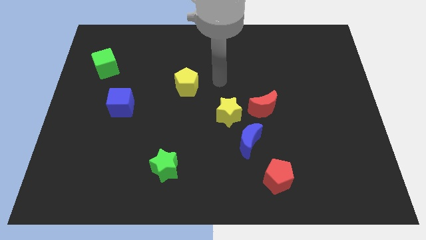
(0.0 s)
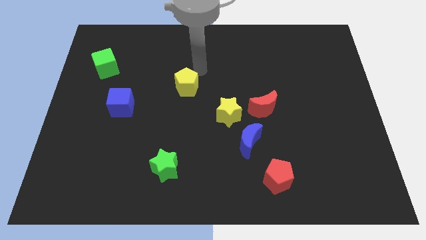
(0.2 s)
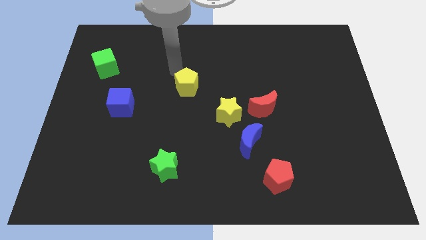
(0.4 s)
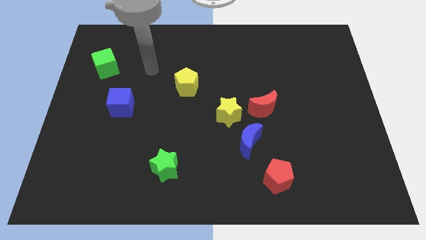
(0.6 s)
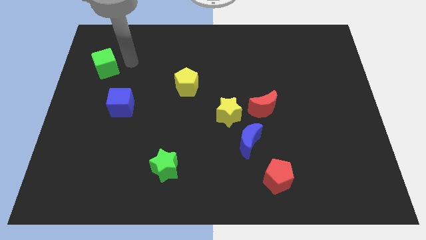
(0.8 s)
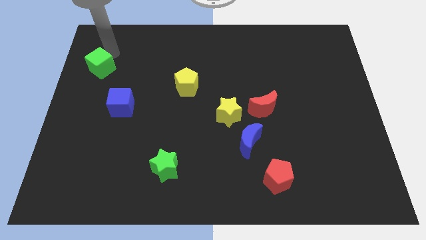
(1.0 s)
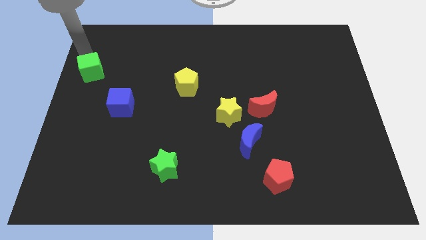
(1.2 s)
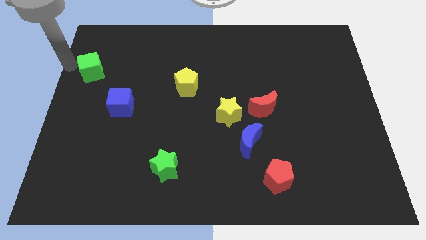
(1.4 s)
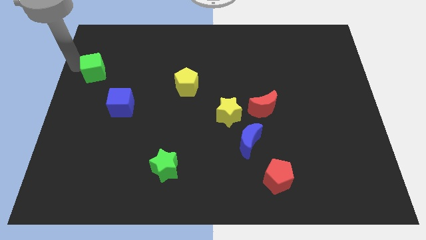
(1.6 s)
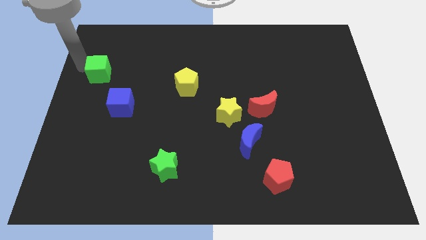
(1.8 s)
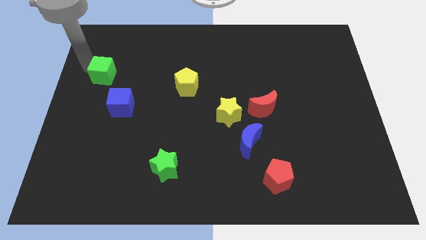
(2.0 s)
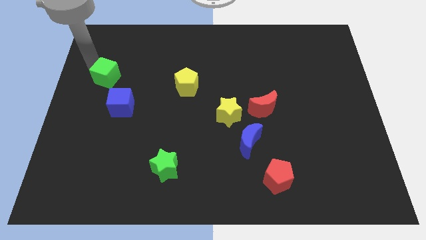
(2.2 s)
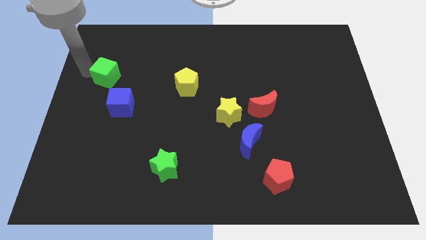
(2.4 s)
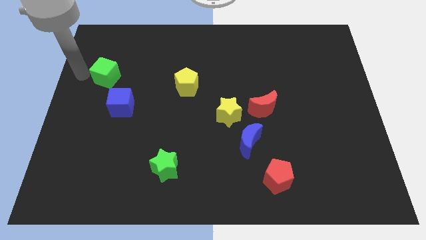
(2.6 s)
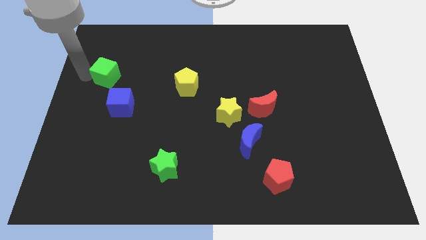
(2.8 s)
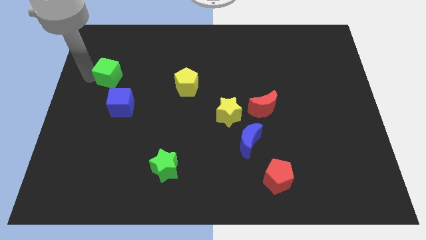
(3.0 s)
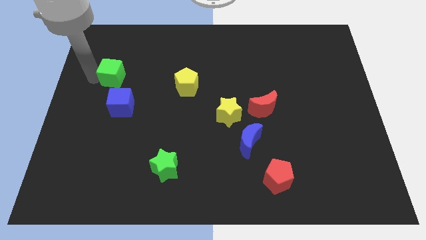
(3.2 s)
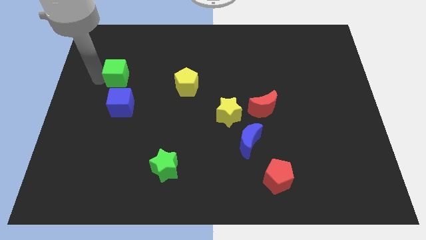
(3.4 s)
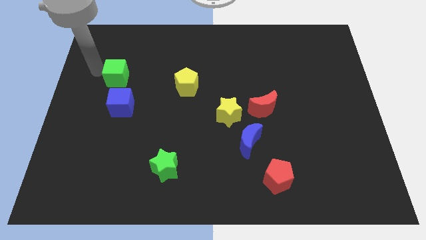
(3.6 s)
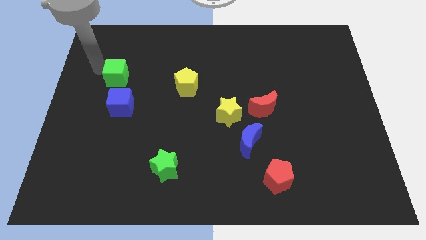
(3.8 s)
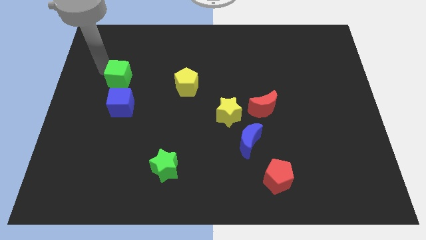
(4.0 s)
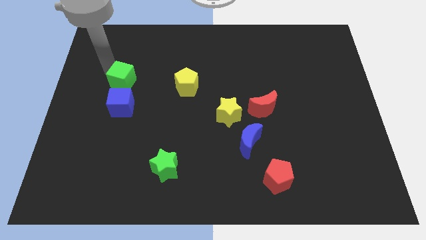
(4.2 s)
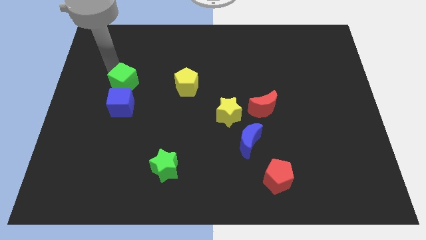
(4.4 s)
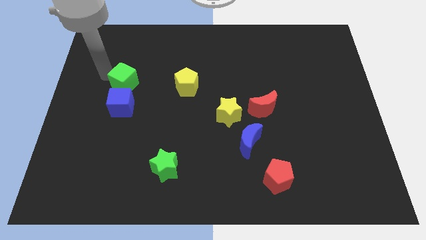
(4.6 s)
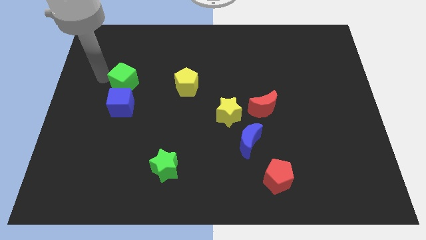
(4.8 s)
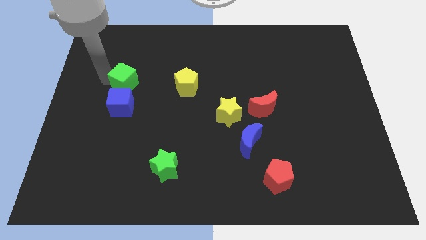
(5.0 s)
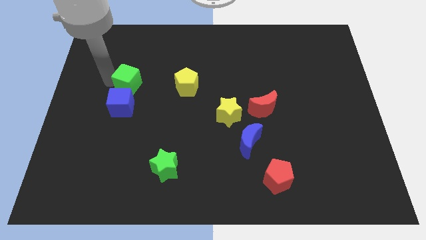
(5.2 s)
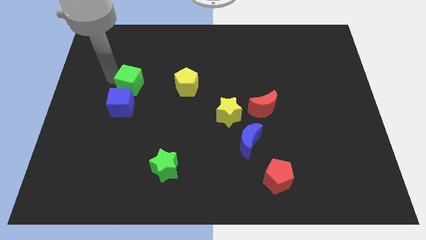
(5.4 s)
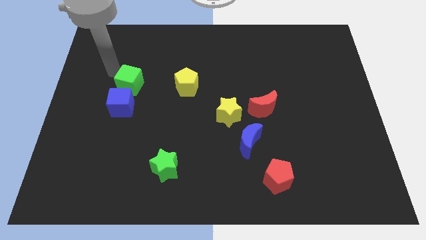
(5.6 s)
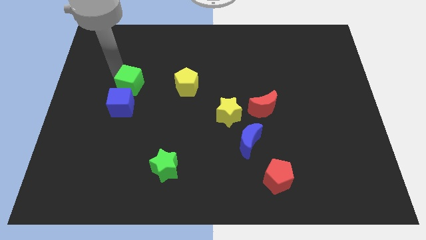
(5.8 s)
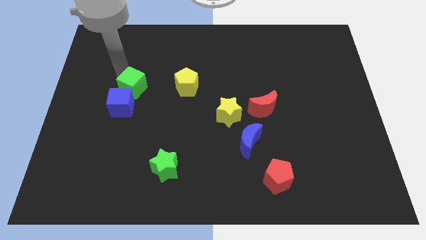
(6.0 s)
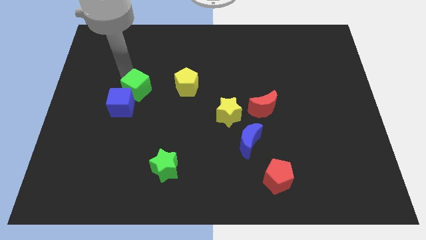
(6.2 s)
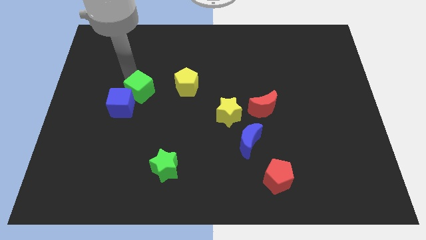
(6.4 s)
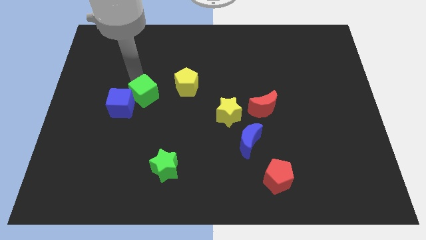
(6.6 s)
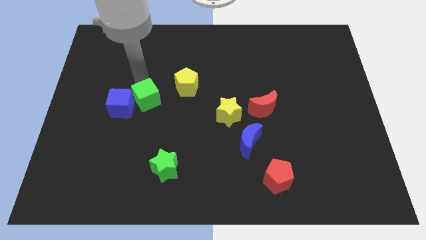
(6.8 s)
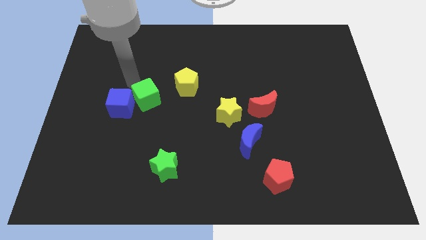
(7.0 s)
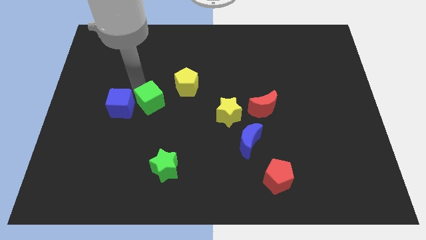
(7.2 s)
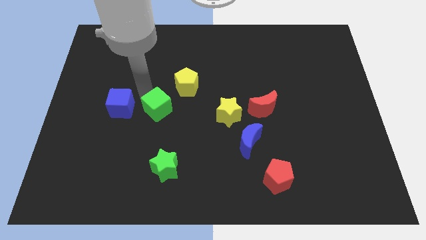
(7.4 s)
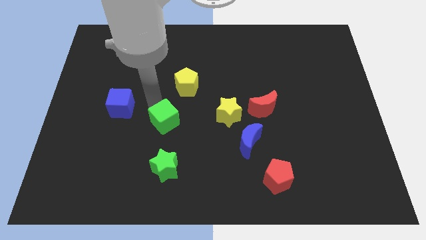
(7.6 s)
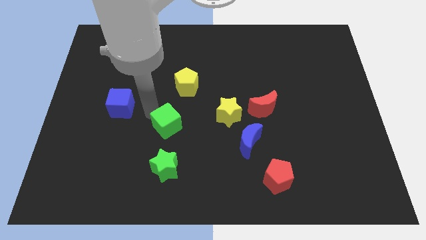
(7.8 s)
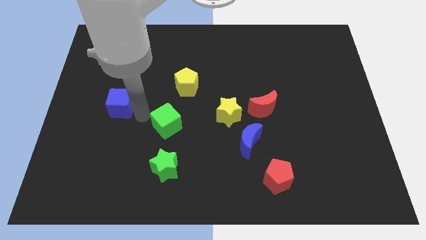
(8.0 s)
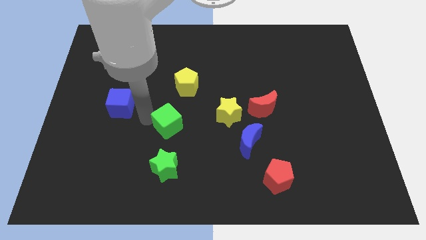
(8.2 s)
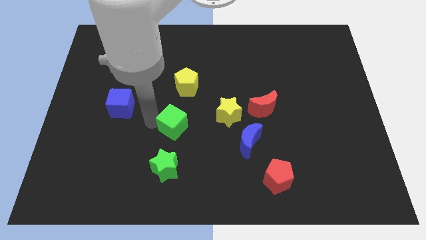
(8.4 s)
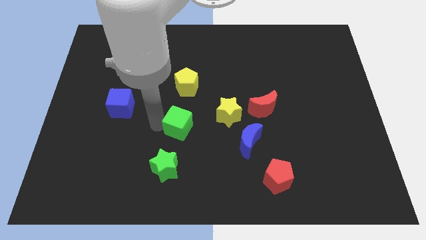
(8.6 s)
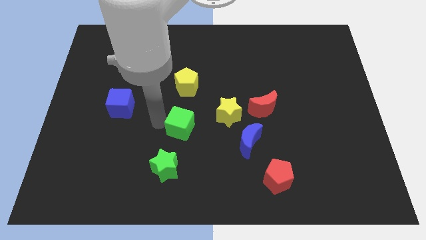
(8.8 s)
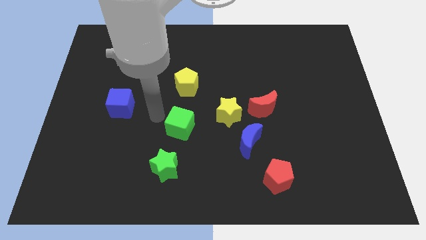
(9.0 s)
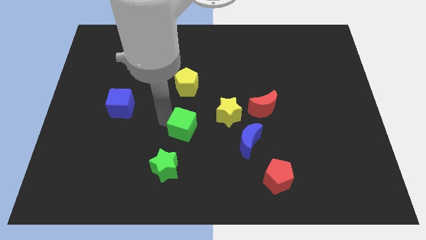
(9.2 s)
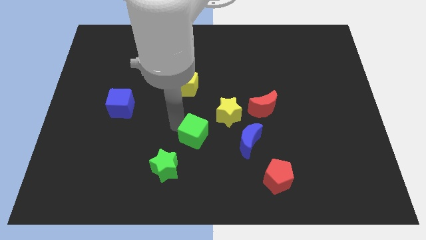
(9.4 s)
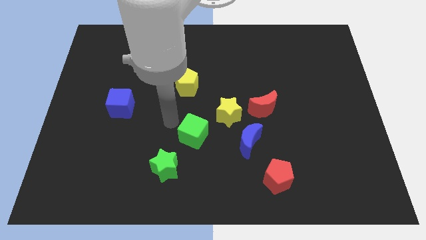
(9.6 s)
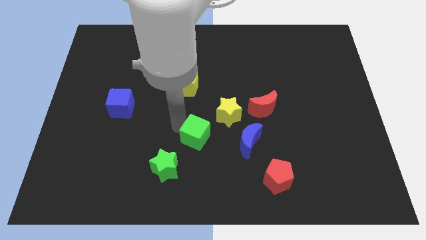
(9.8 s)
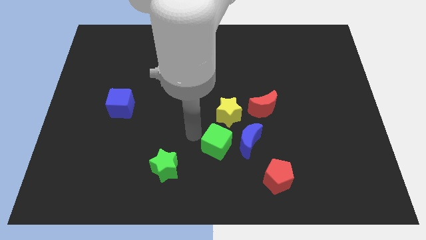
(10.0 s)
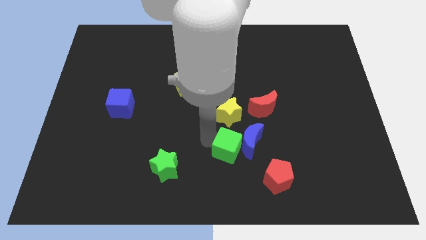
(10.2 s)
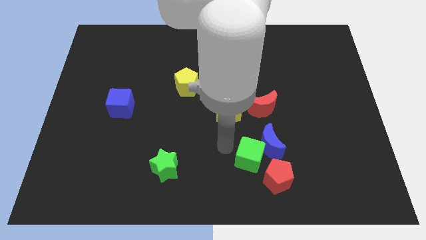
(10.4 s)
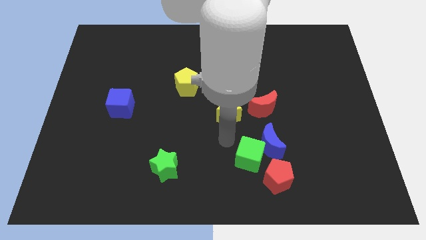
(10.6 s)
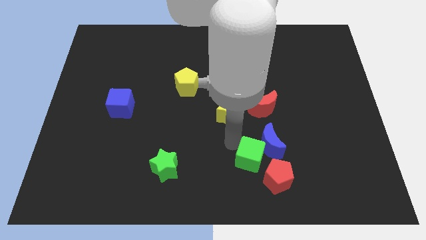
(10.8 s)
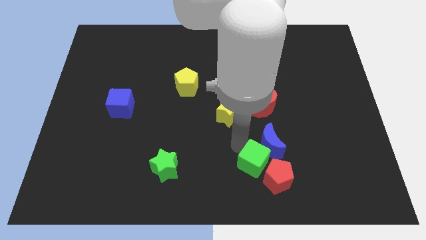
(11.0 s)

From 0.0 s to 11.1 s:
put the green cube close to the red pentagon

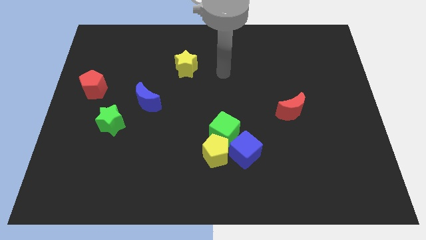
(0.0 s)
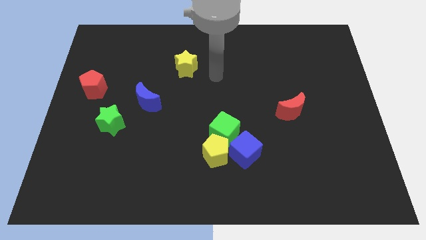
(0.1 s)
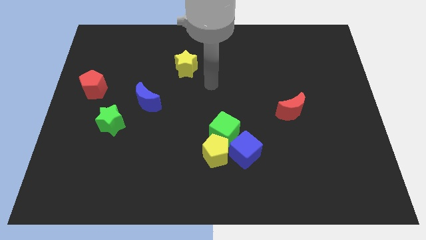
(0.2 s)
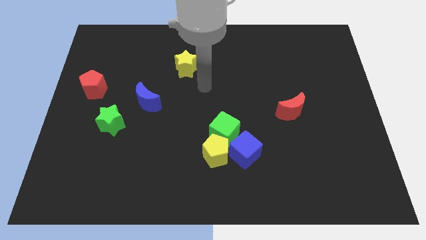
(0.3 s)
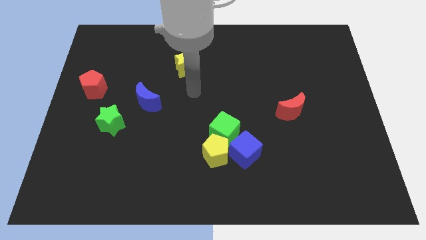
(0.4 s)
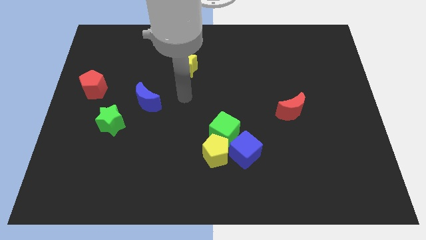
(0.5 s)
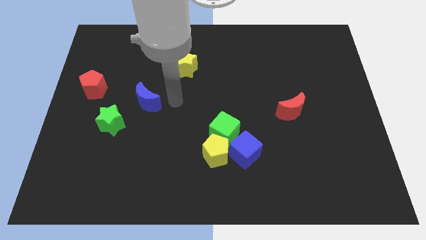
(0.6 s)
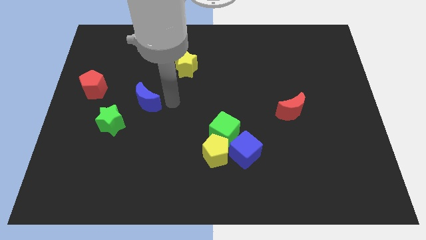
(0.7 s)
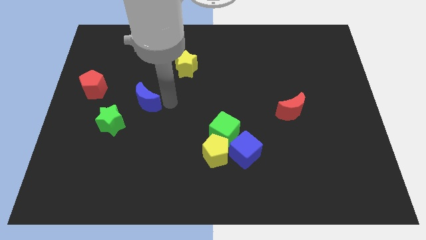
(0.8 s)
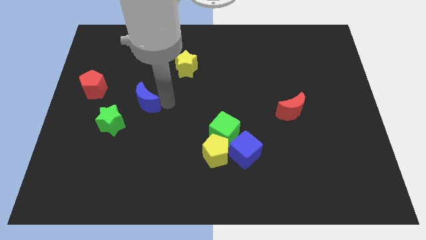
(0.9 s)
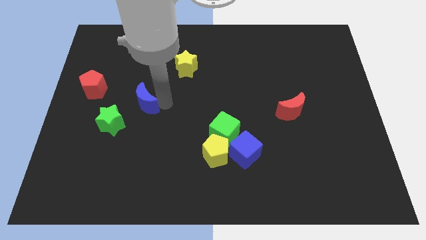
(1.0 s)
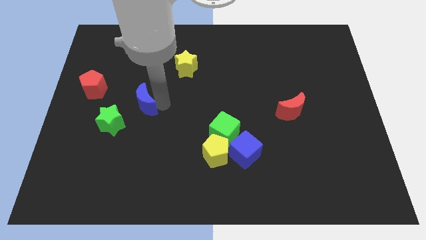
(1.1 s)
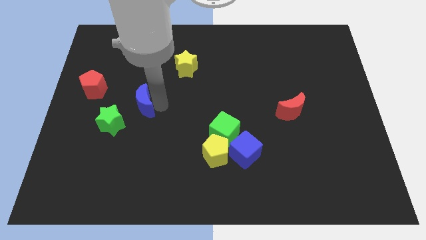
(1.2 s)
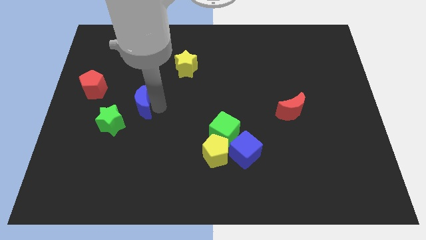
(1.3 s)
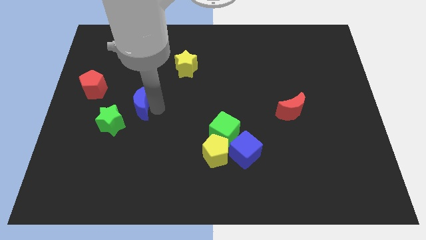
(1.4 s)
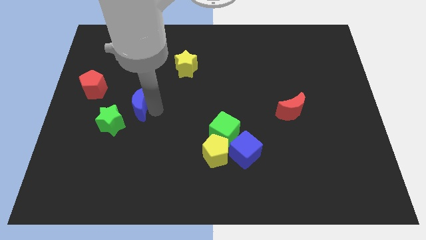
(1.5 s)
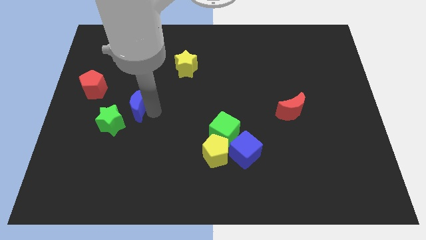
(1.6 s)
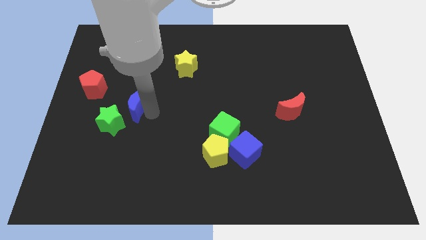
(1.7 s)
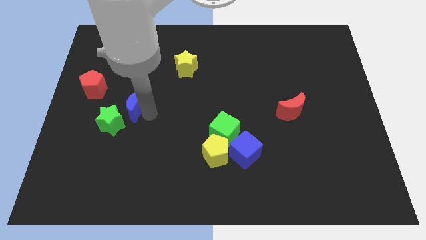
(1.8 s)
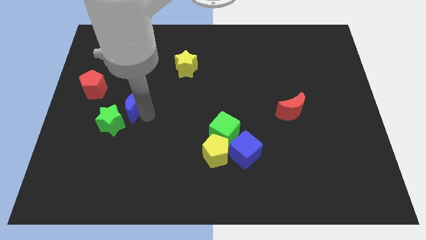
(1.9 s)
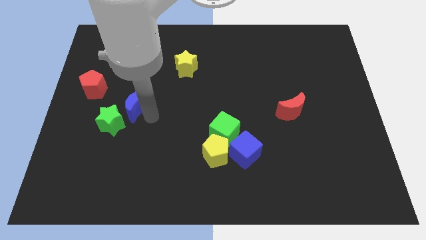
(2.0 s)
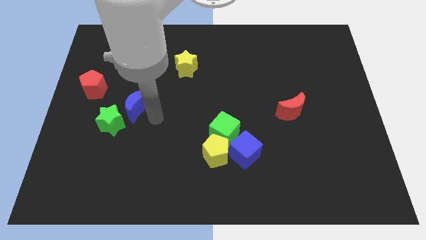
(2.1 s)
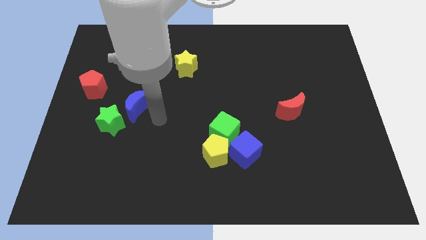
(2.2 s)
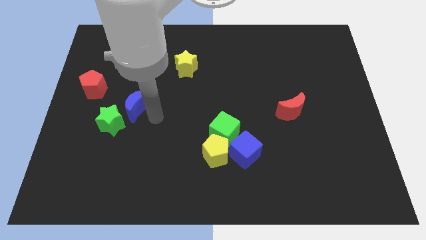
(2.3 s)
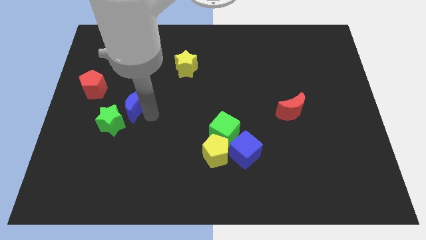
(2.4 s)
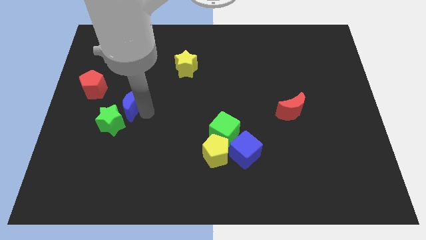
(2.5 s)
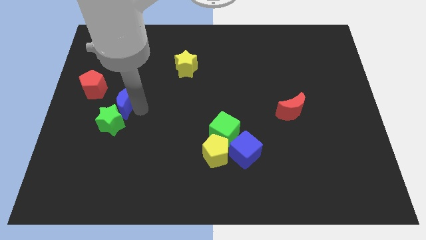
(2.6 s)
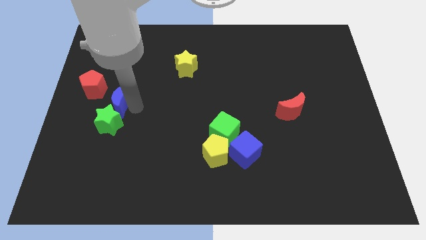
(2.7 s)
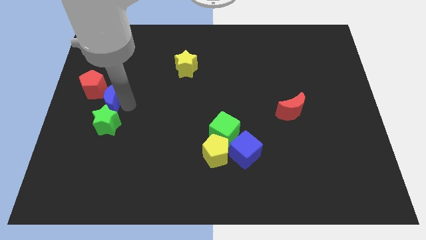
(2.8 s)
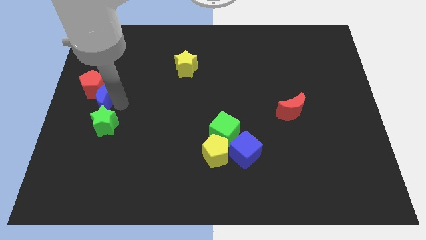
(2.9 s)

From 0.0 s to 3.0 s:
put the blue moon close to the red pentagon
